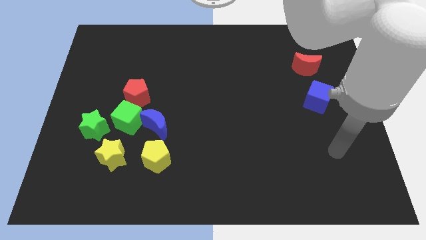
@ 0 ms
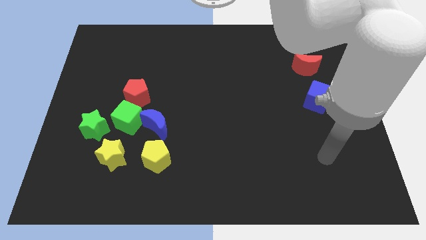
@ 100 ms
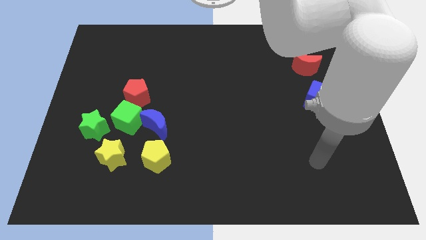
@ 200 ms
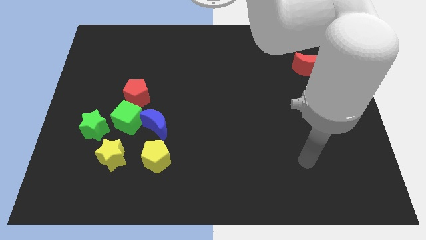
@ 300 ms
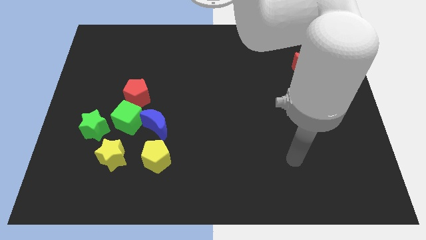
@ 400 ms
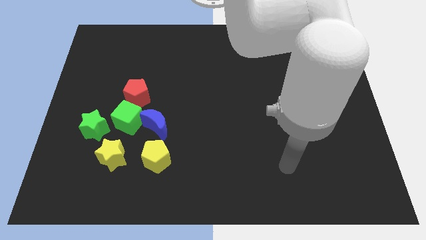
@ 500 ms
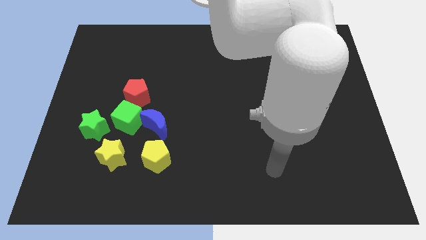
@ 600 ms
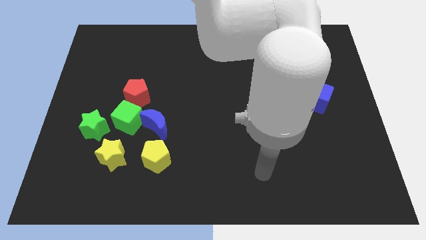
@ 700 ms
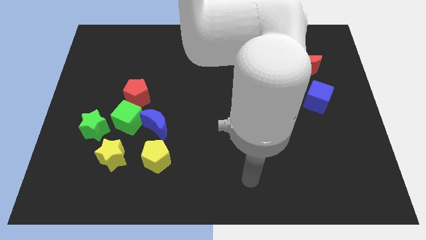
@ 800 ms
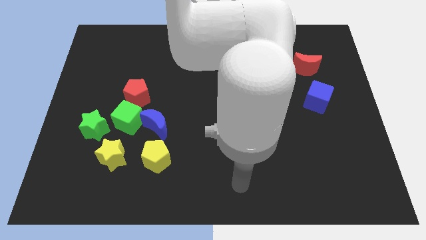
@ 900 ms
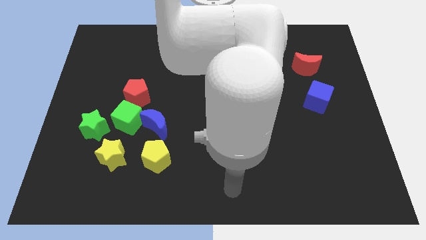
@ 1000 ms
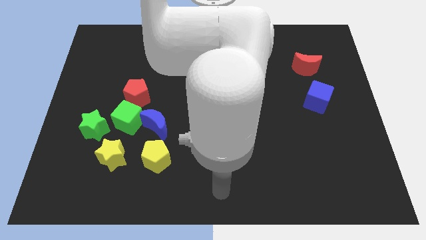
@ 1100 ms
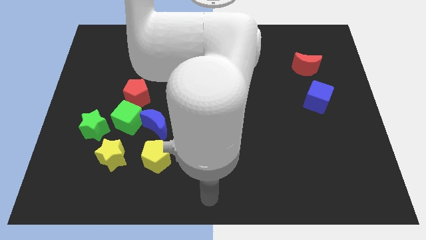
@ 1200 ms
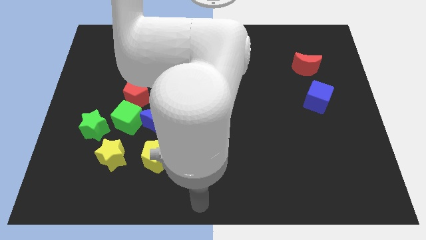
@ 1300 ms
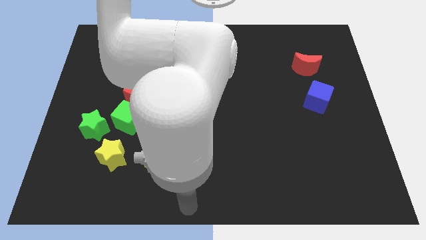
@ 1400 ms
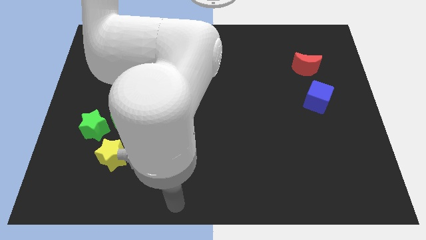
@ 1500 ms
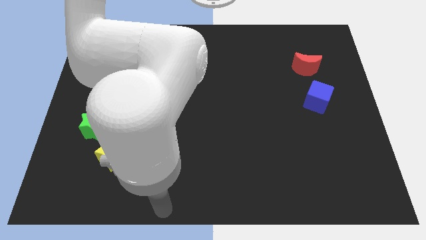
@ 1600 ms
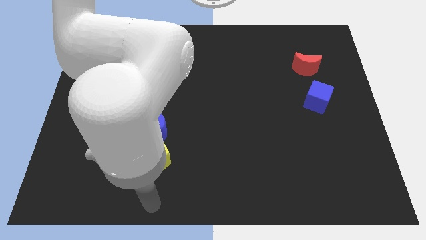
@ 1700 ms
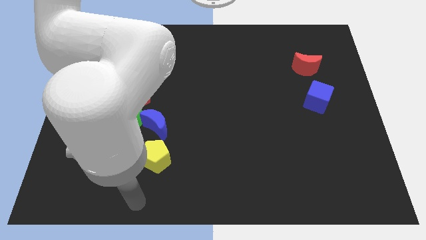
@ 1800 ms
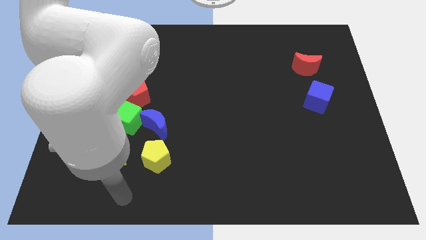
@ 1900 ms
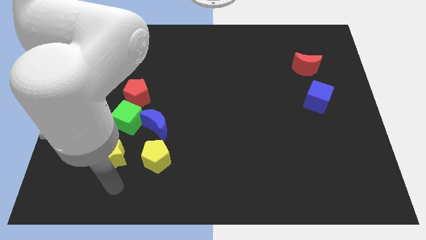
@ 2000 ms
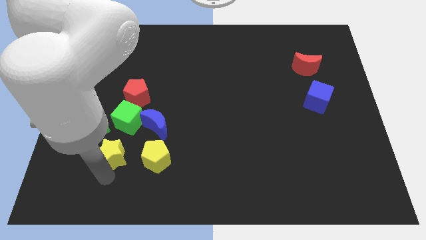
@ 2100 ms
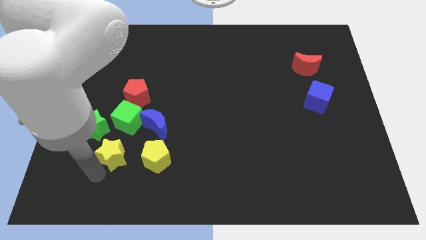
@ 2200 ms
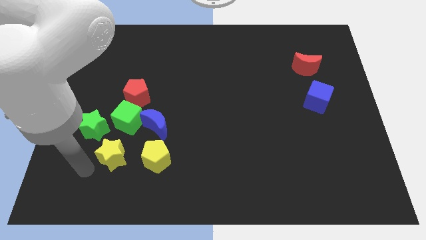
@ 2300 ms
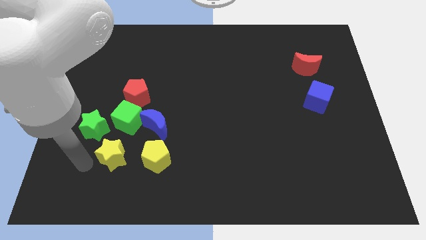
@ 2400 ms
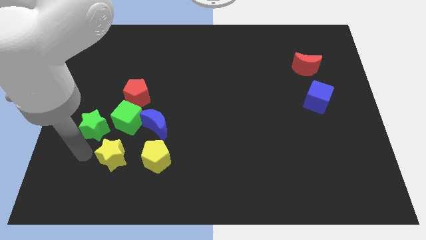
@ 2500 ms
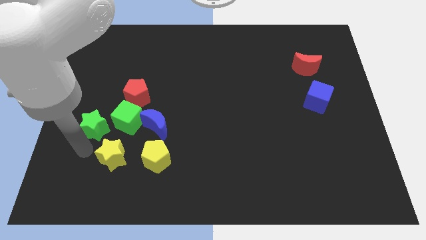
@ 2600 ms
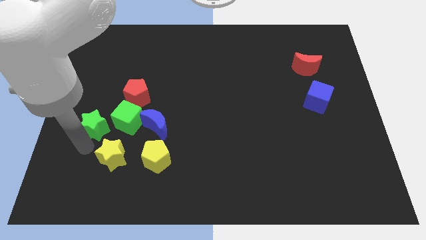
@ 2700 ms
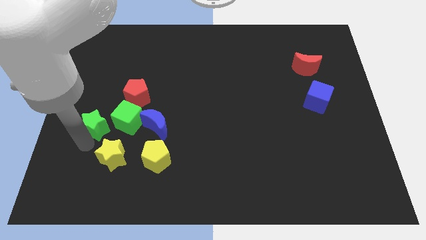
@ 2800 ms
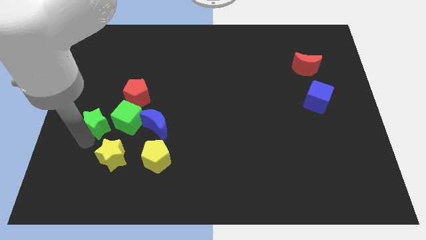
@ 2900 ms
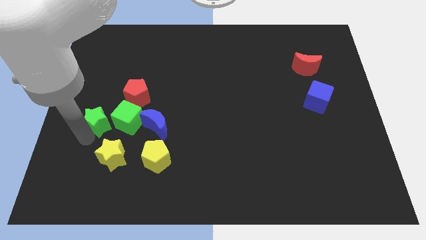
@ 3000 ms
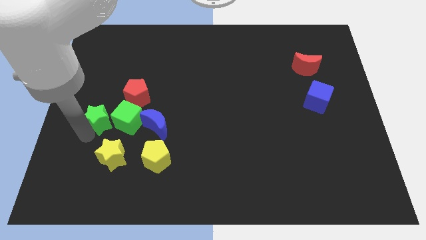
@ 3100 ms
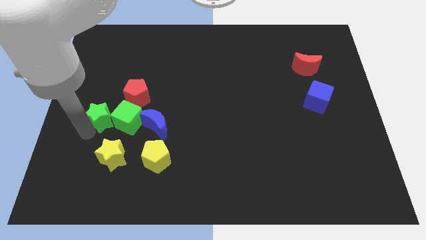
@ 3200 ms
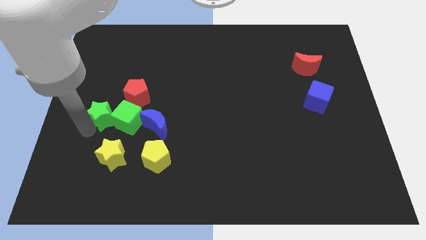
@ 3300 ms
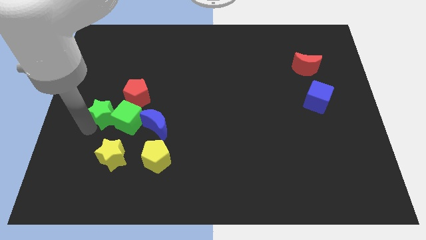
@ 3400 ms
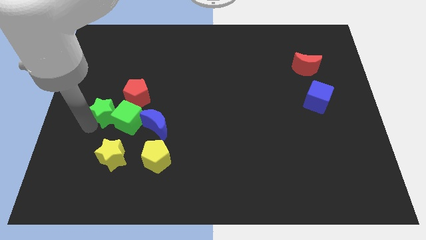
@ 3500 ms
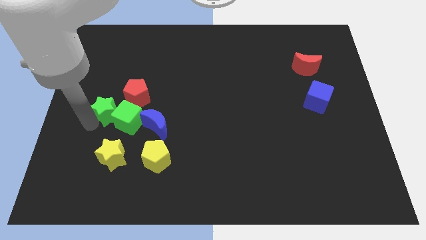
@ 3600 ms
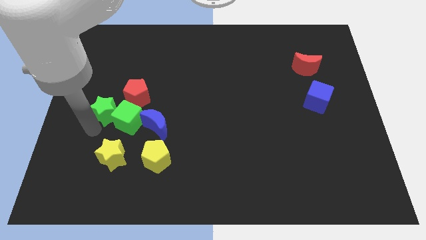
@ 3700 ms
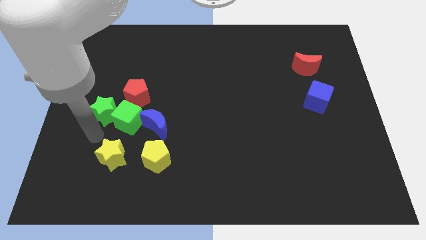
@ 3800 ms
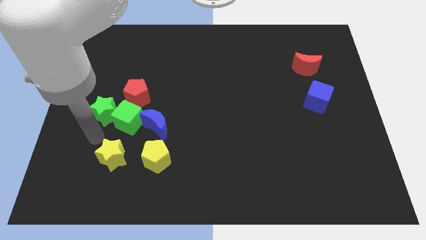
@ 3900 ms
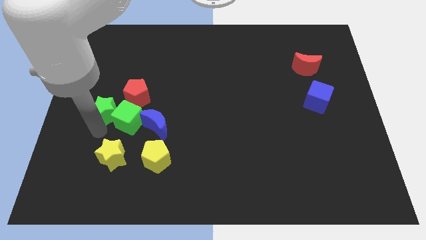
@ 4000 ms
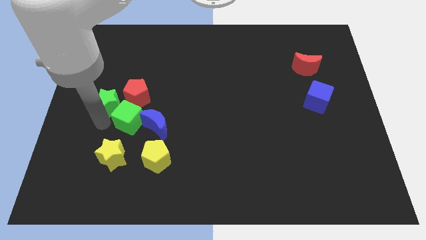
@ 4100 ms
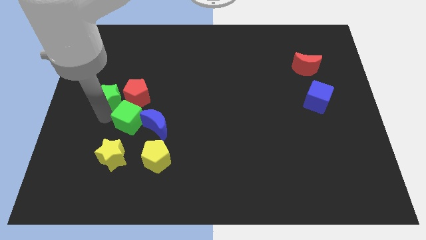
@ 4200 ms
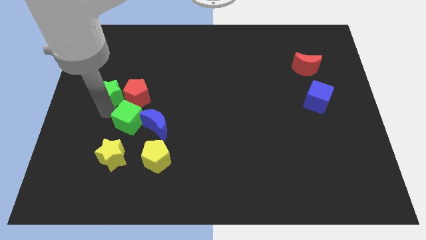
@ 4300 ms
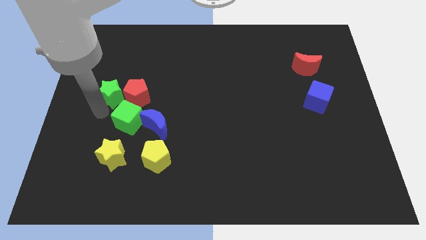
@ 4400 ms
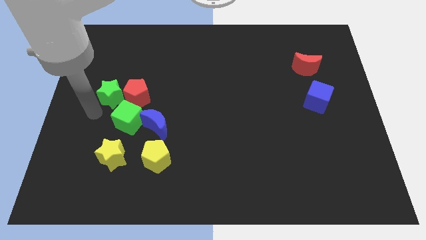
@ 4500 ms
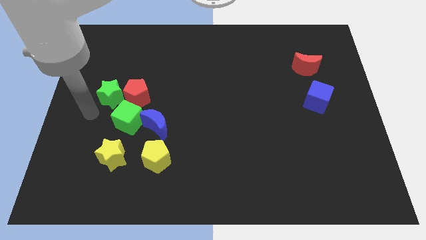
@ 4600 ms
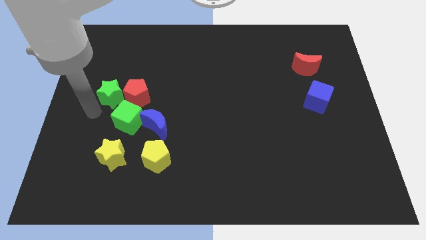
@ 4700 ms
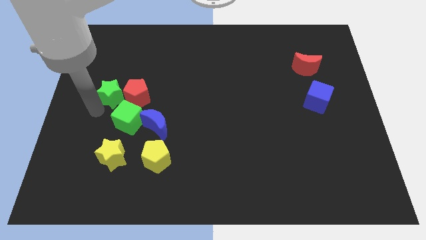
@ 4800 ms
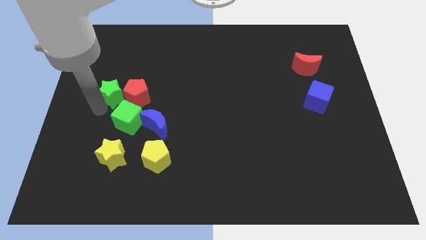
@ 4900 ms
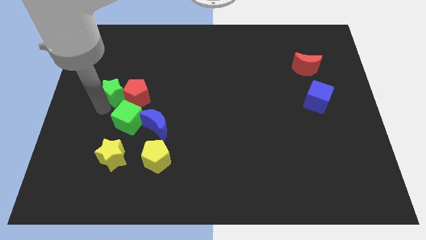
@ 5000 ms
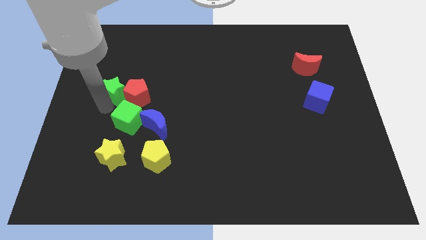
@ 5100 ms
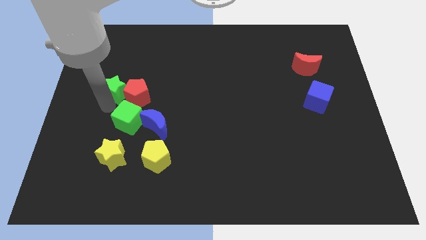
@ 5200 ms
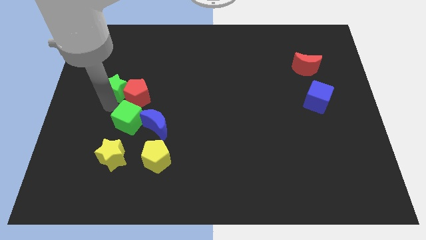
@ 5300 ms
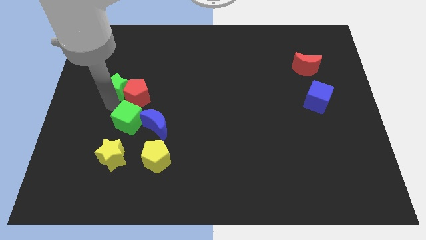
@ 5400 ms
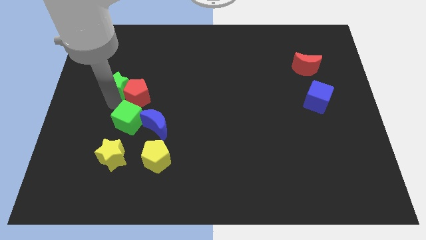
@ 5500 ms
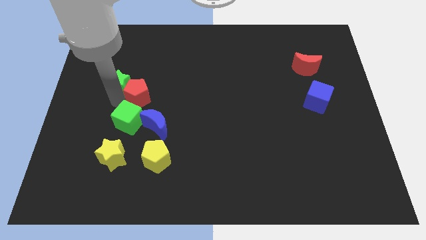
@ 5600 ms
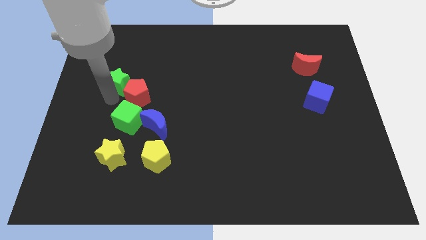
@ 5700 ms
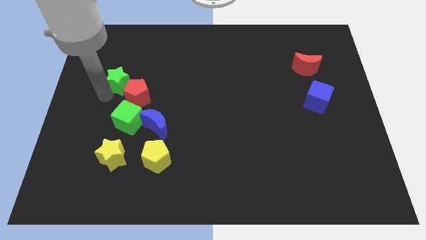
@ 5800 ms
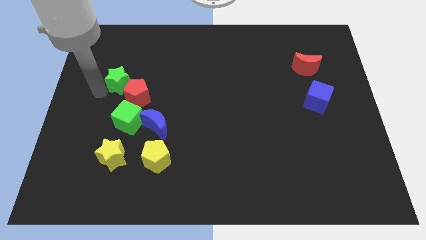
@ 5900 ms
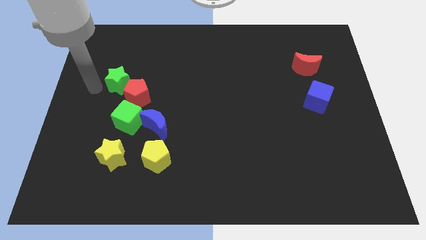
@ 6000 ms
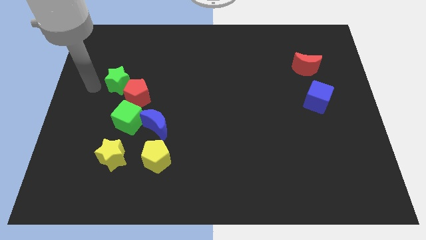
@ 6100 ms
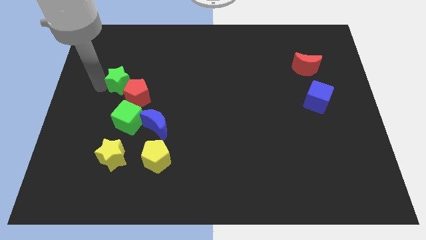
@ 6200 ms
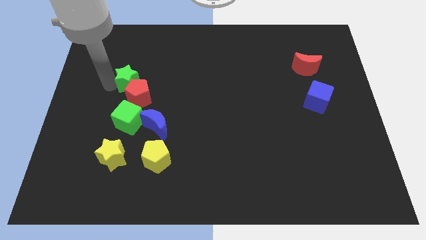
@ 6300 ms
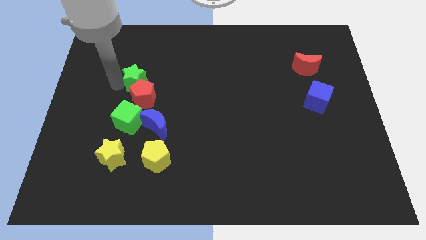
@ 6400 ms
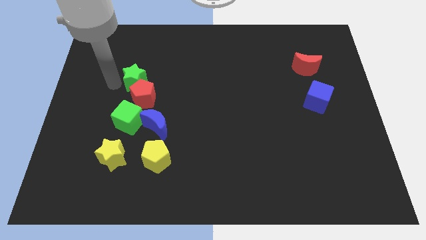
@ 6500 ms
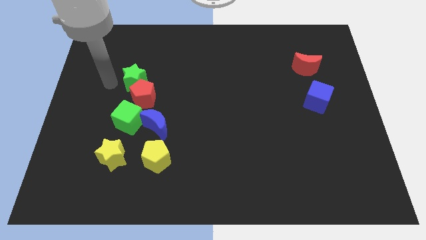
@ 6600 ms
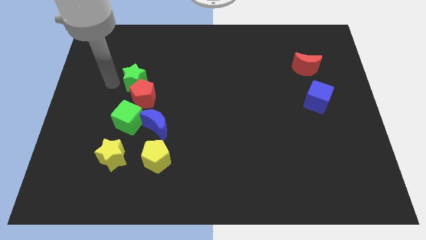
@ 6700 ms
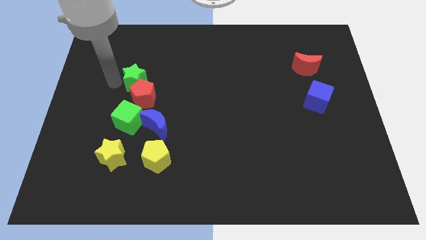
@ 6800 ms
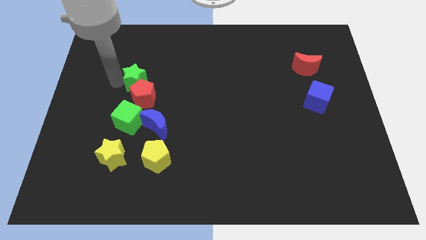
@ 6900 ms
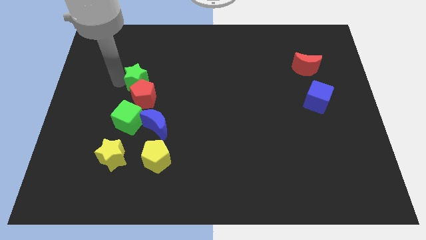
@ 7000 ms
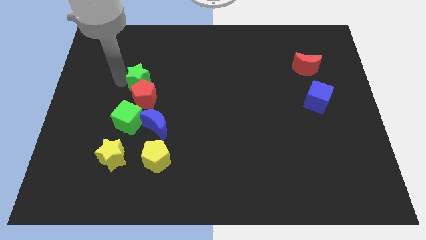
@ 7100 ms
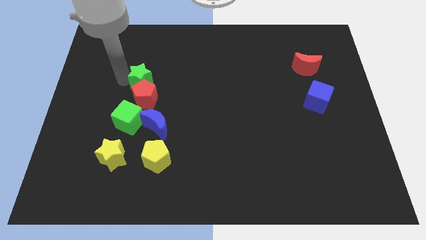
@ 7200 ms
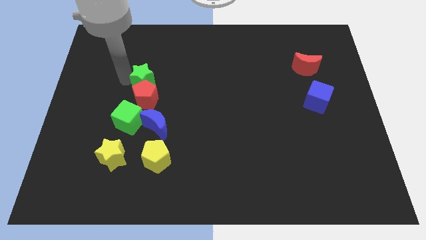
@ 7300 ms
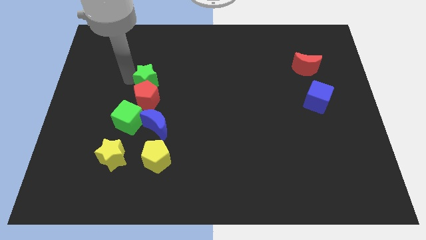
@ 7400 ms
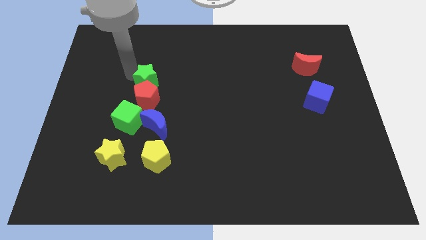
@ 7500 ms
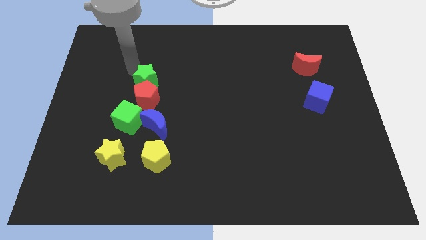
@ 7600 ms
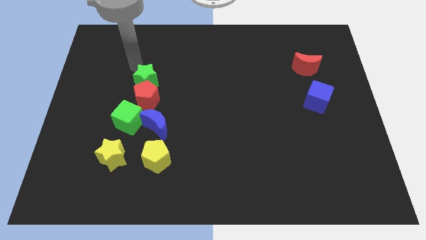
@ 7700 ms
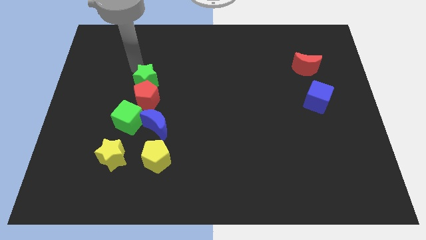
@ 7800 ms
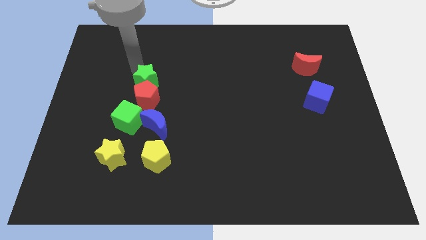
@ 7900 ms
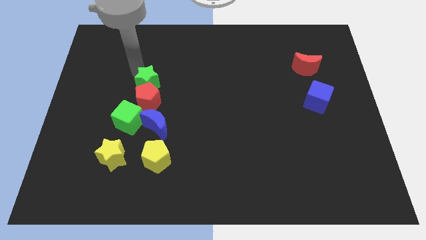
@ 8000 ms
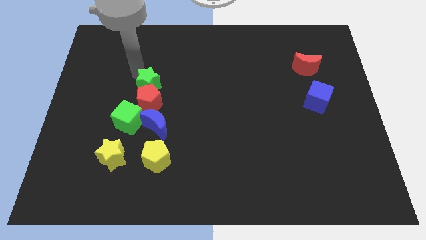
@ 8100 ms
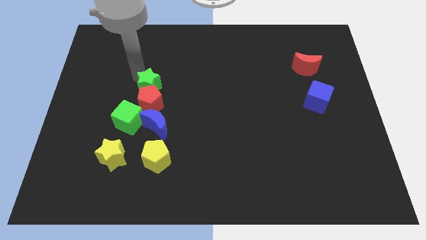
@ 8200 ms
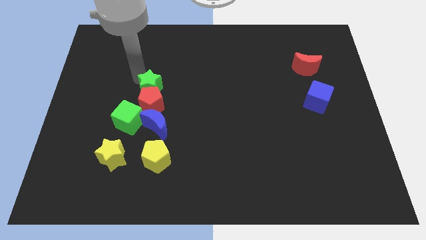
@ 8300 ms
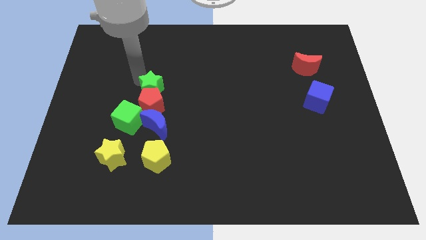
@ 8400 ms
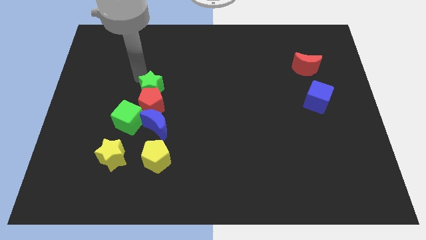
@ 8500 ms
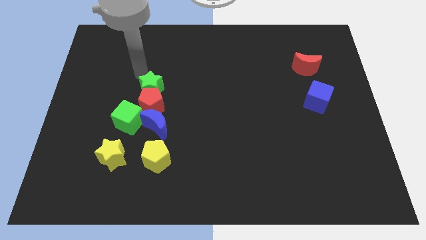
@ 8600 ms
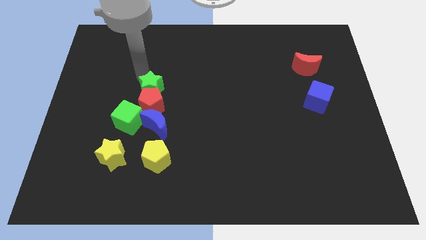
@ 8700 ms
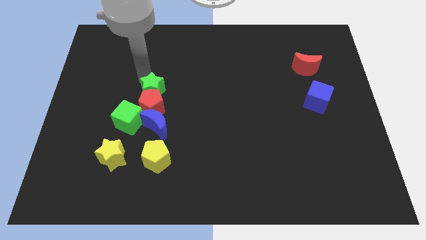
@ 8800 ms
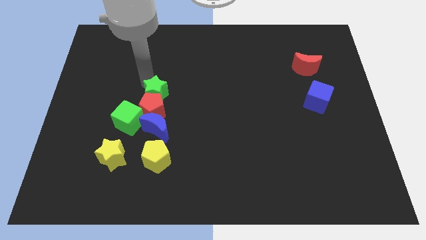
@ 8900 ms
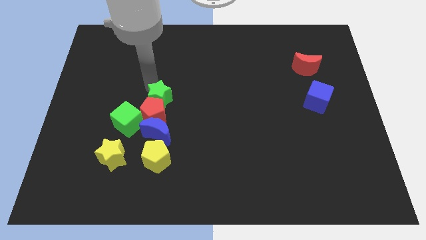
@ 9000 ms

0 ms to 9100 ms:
push the green star above the yellow pentagon
